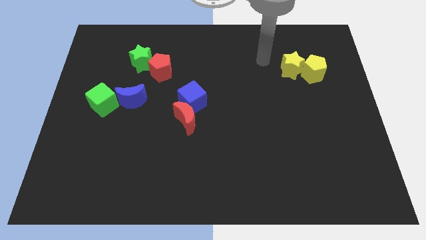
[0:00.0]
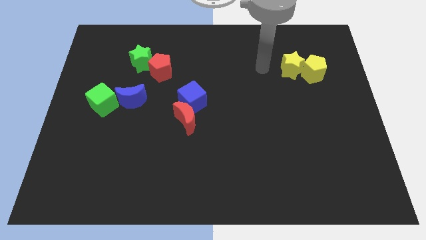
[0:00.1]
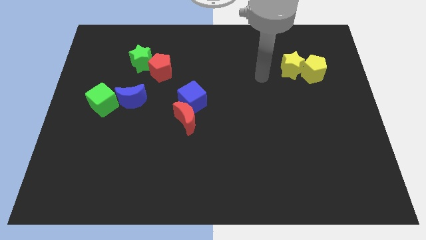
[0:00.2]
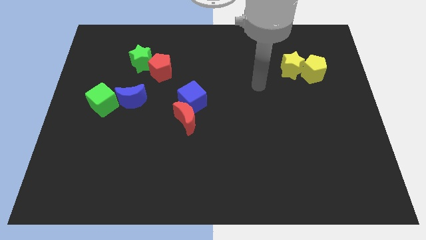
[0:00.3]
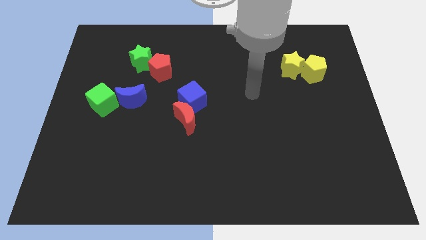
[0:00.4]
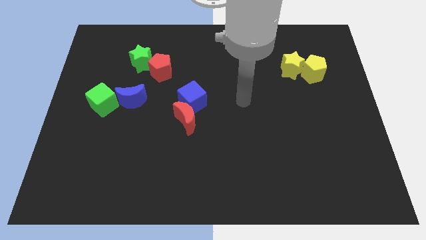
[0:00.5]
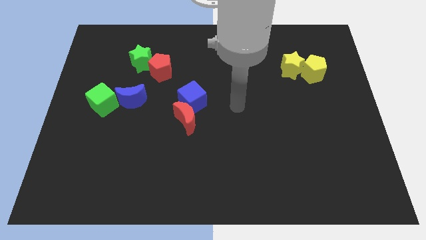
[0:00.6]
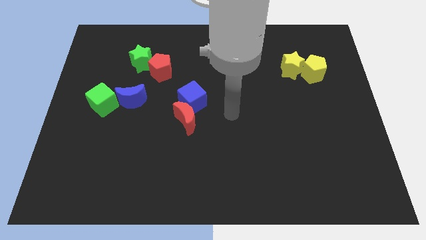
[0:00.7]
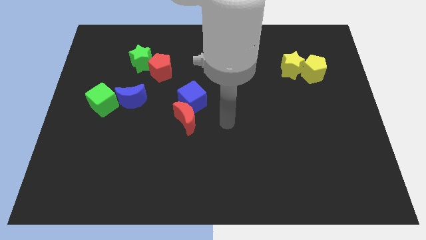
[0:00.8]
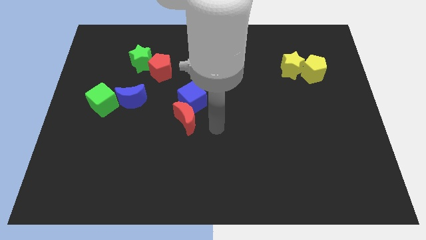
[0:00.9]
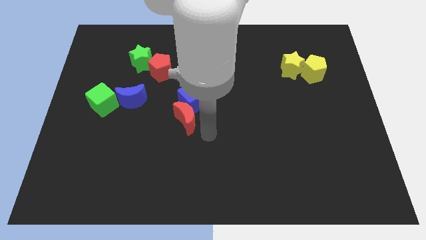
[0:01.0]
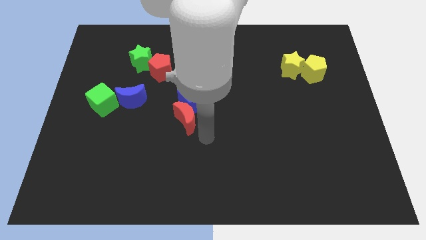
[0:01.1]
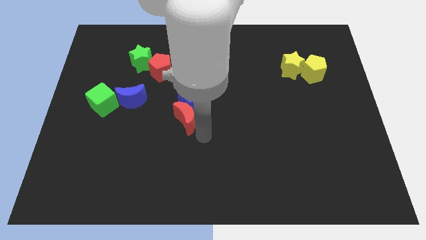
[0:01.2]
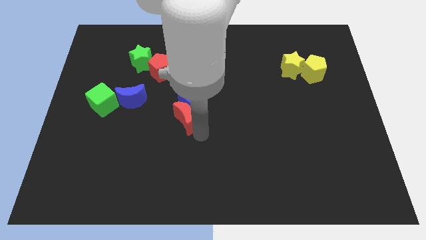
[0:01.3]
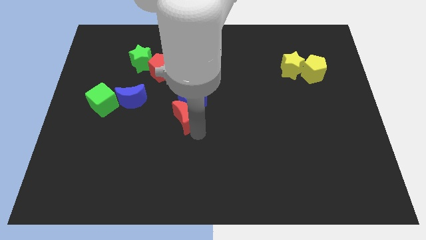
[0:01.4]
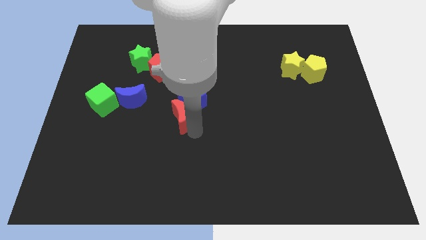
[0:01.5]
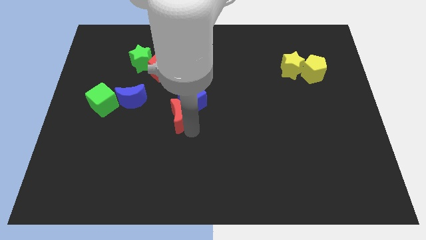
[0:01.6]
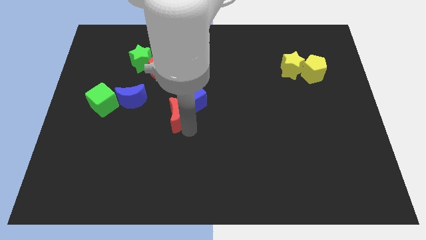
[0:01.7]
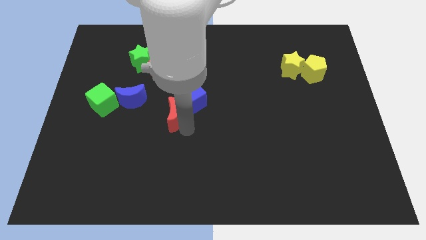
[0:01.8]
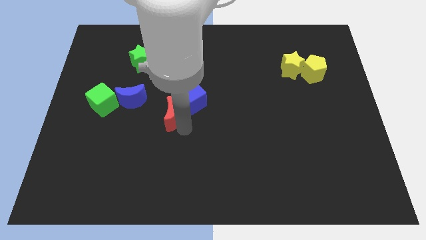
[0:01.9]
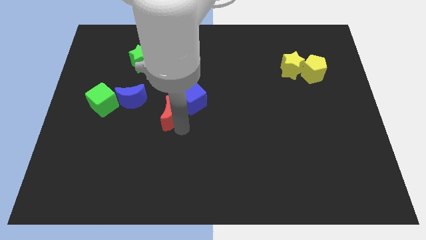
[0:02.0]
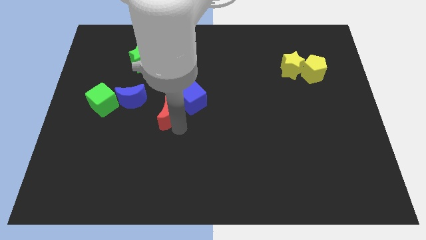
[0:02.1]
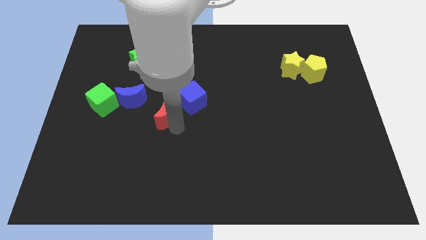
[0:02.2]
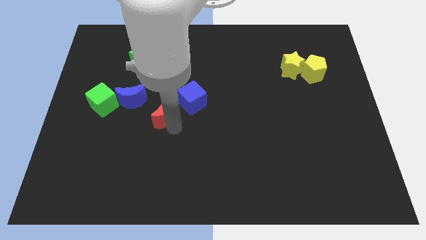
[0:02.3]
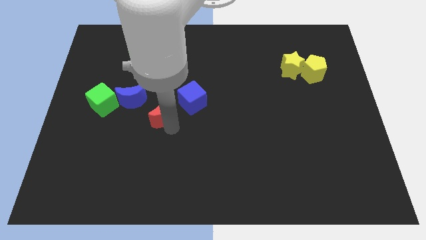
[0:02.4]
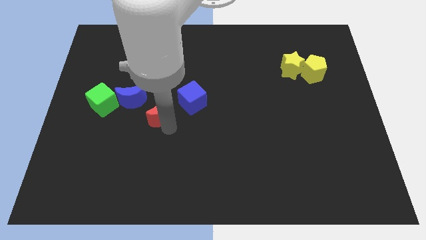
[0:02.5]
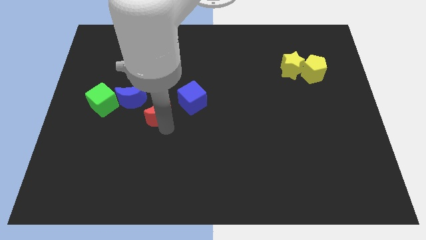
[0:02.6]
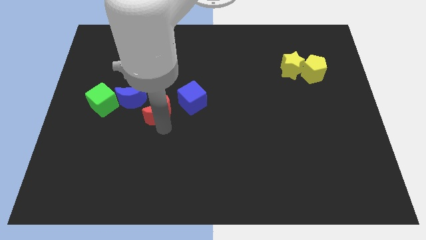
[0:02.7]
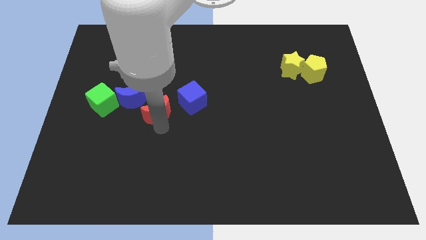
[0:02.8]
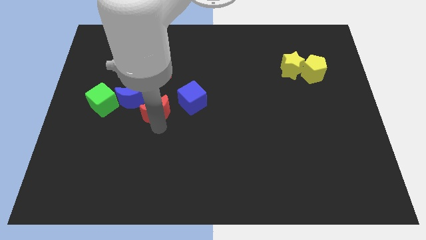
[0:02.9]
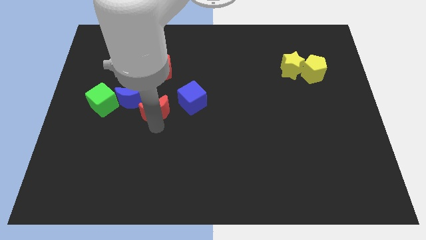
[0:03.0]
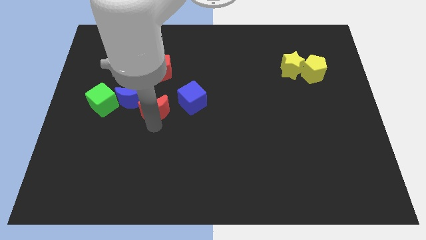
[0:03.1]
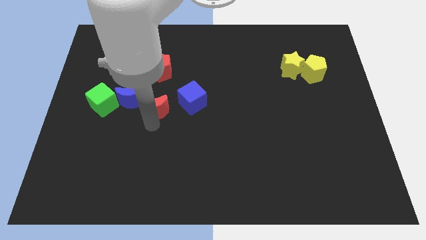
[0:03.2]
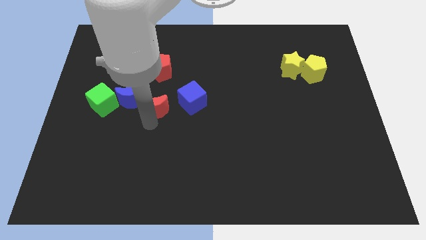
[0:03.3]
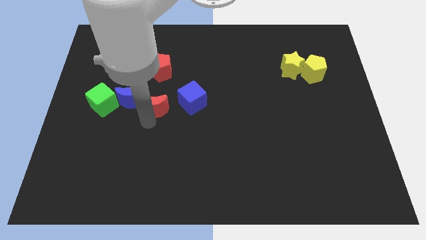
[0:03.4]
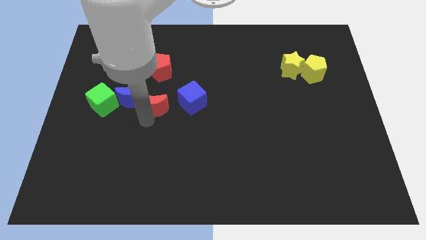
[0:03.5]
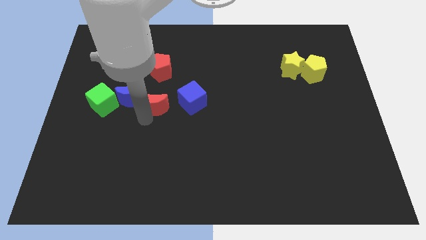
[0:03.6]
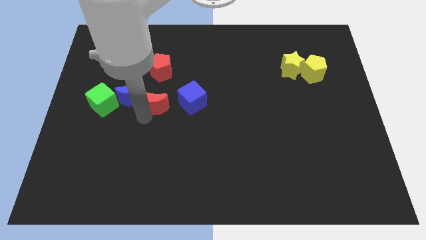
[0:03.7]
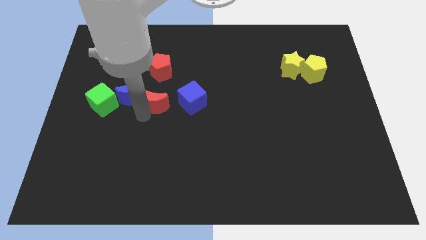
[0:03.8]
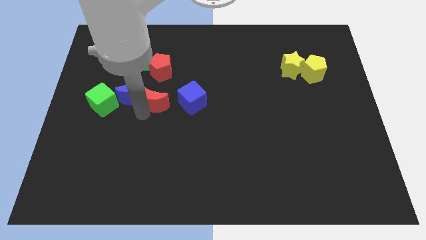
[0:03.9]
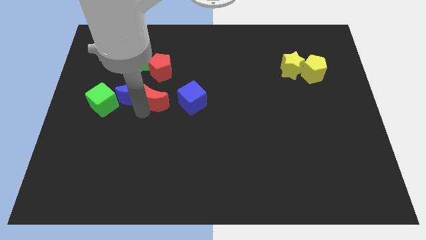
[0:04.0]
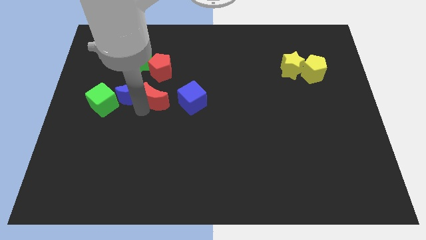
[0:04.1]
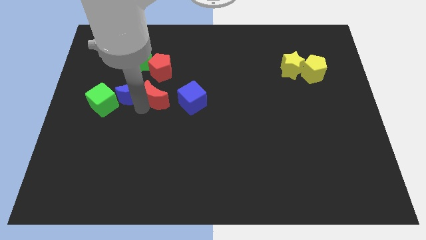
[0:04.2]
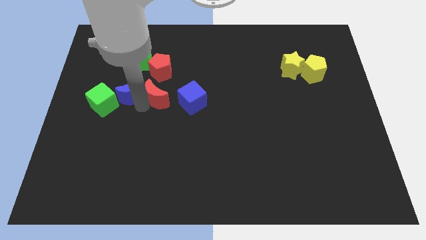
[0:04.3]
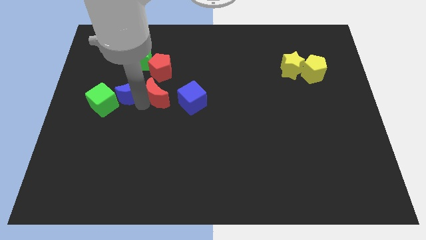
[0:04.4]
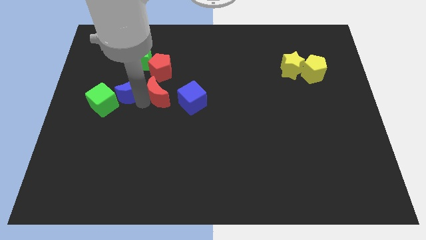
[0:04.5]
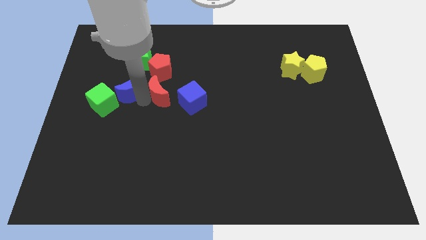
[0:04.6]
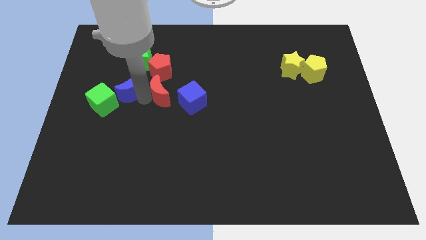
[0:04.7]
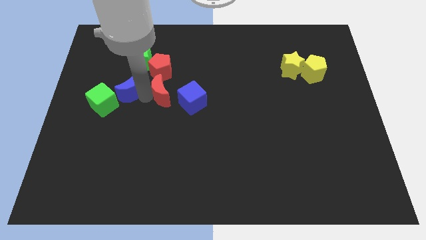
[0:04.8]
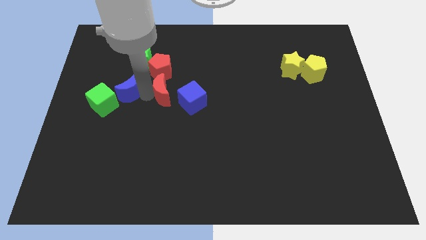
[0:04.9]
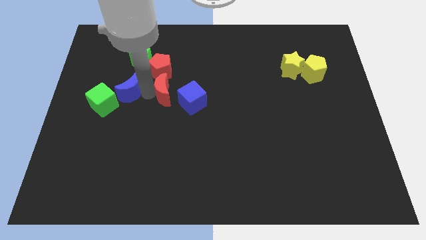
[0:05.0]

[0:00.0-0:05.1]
slide the red moon to the bottom right side of the green star

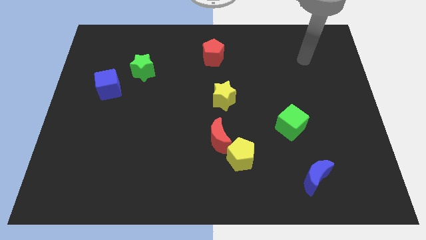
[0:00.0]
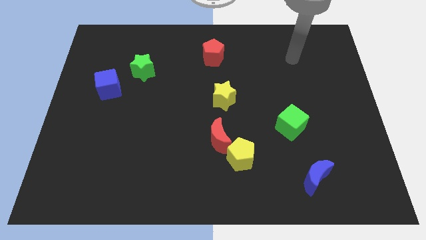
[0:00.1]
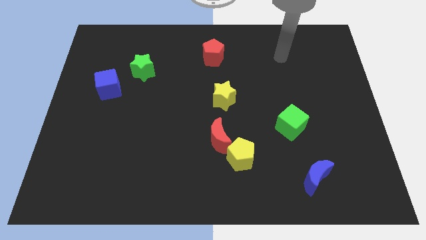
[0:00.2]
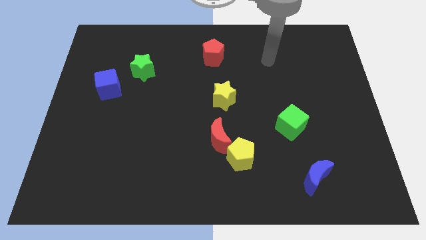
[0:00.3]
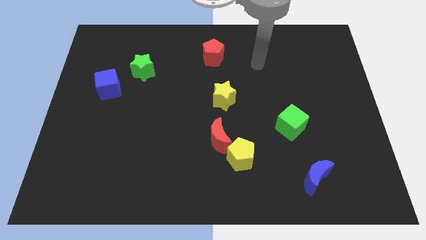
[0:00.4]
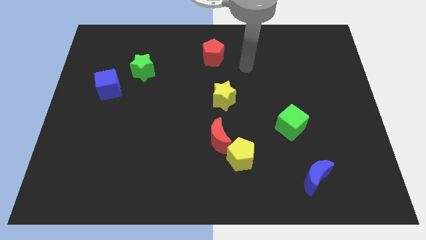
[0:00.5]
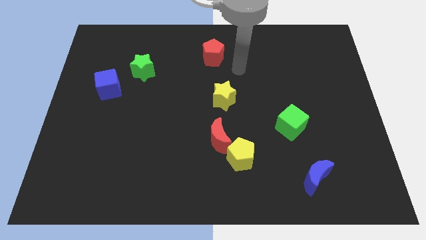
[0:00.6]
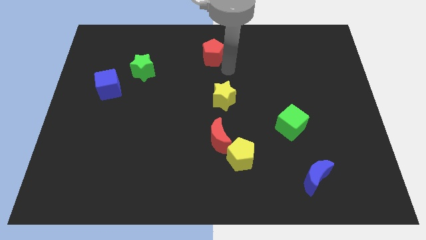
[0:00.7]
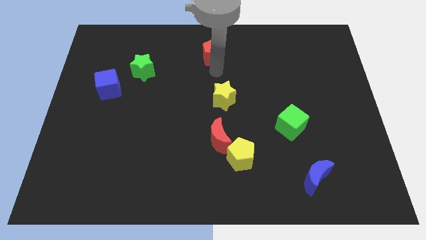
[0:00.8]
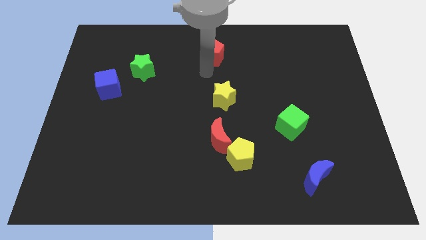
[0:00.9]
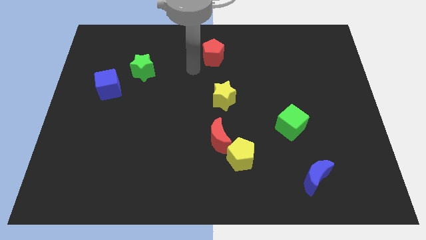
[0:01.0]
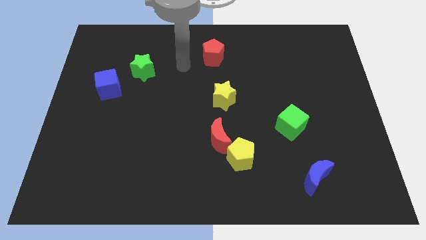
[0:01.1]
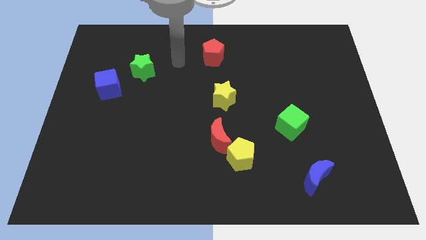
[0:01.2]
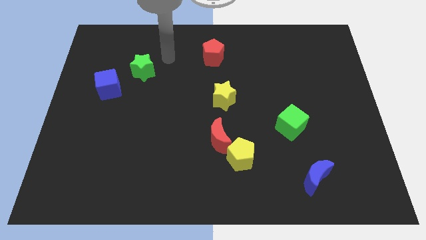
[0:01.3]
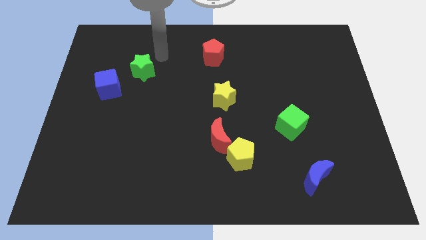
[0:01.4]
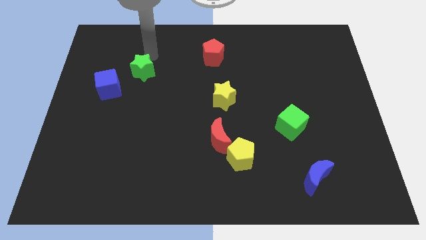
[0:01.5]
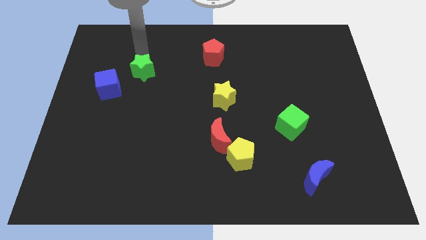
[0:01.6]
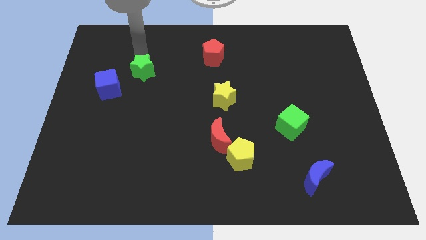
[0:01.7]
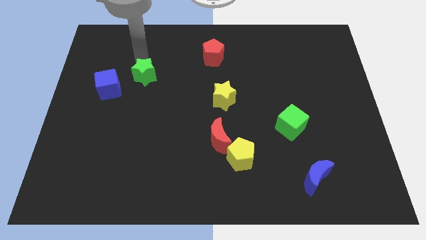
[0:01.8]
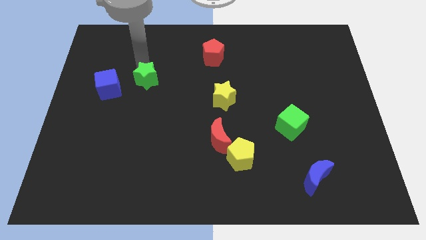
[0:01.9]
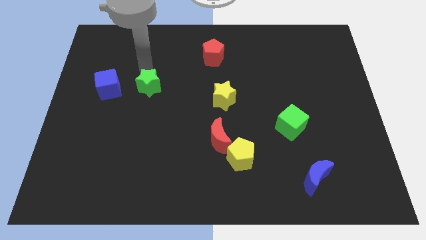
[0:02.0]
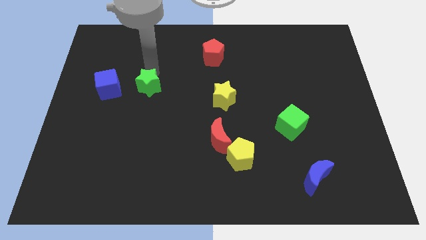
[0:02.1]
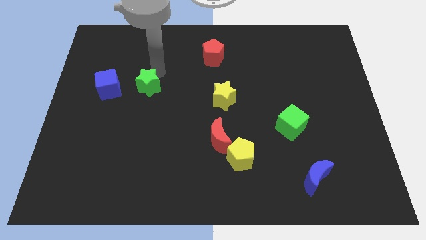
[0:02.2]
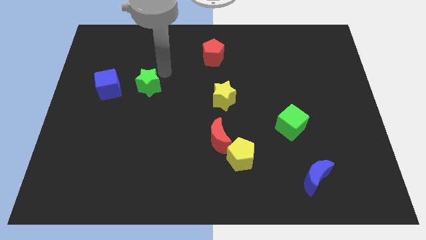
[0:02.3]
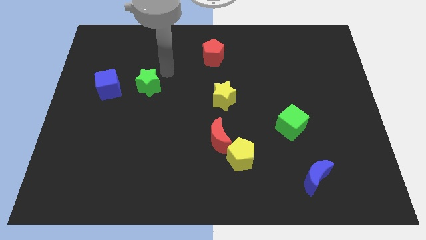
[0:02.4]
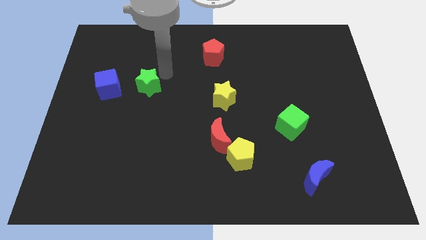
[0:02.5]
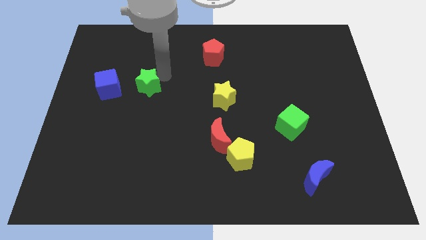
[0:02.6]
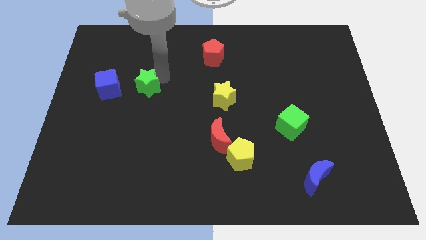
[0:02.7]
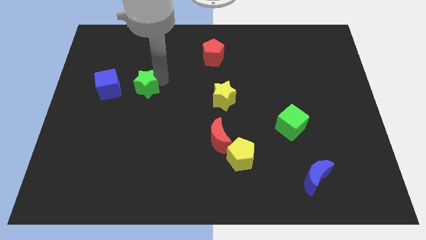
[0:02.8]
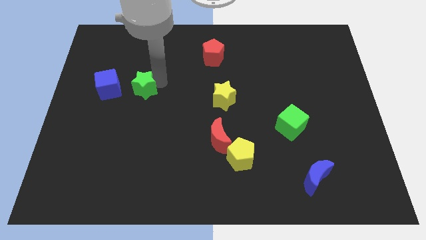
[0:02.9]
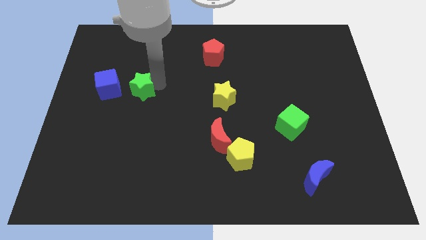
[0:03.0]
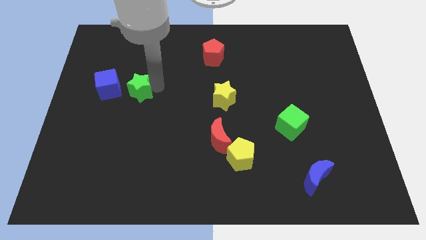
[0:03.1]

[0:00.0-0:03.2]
put the green star to the bottom right of the blue cube
